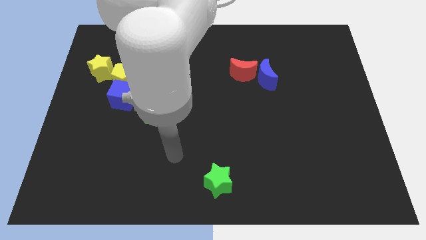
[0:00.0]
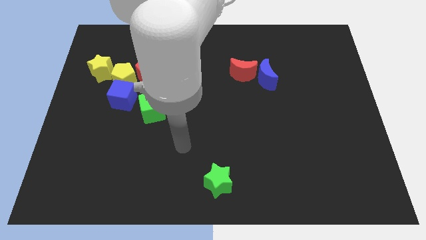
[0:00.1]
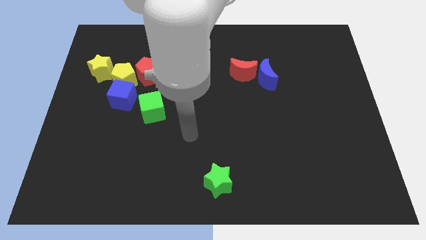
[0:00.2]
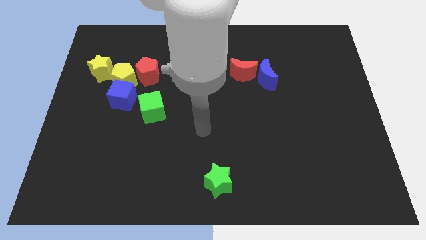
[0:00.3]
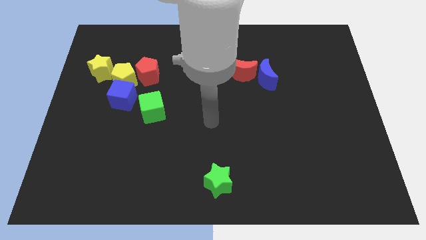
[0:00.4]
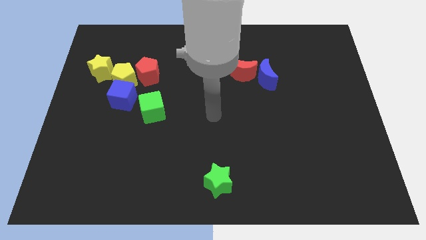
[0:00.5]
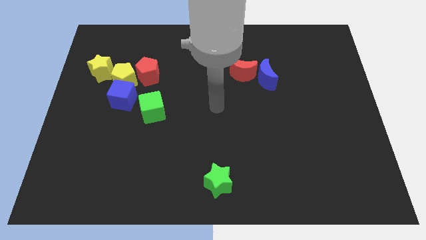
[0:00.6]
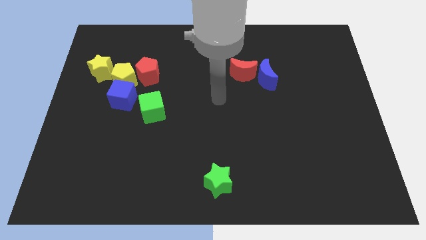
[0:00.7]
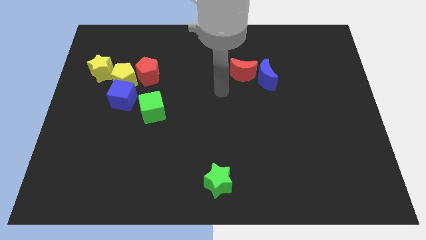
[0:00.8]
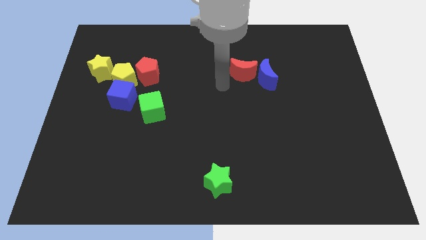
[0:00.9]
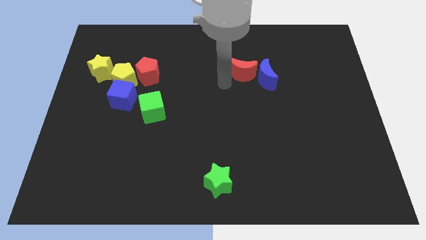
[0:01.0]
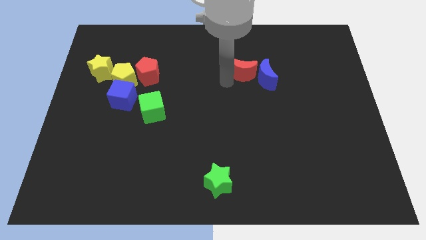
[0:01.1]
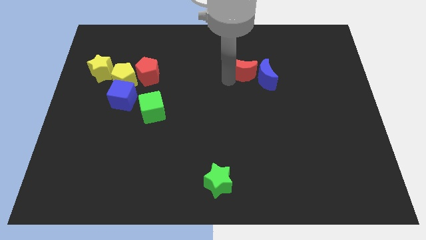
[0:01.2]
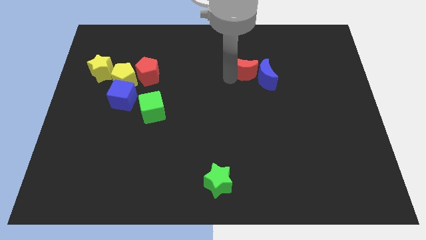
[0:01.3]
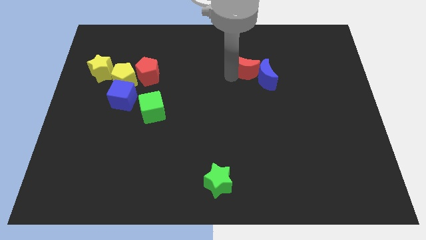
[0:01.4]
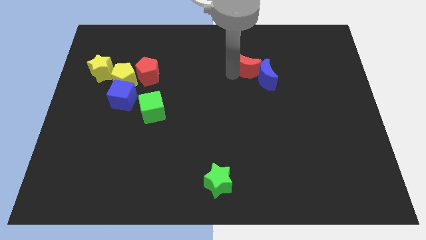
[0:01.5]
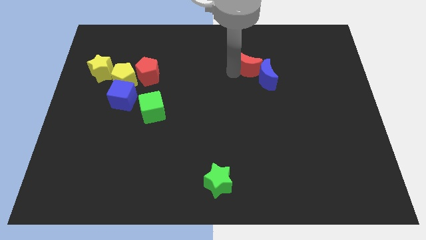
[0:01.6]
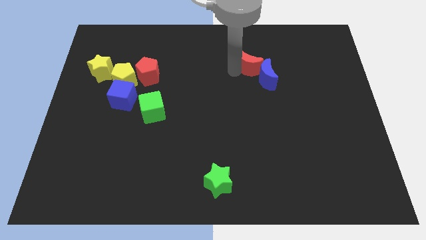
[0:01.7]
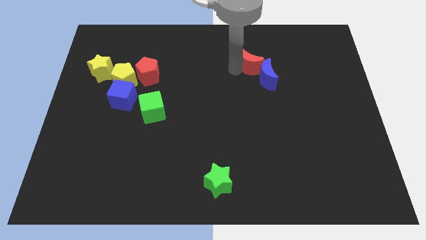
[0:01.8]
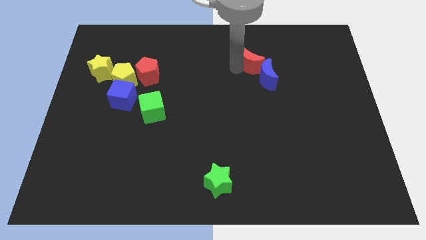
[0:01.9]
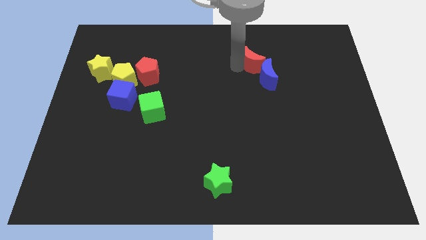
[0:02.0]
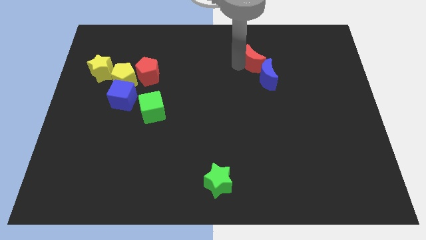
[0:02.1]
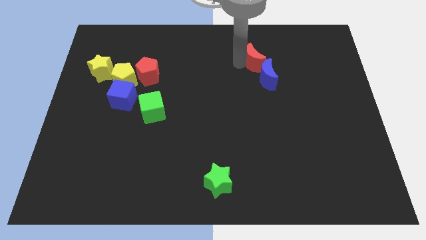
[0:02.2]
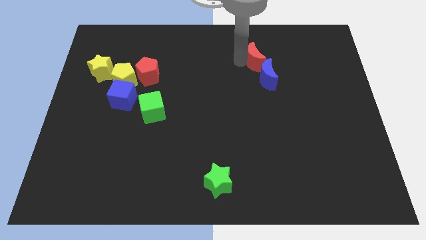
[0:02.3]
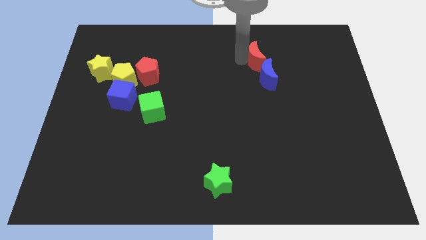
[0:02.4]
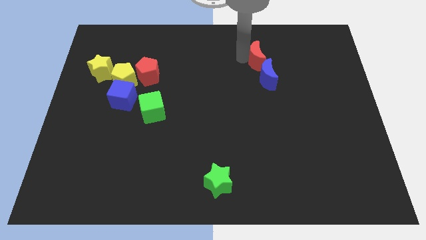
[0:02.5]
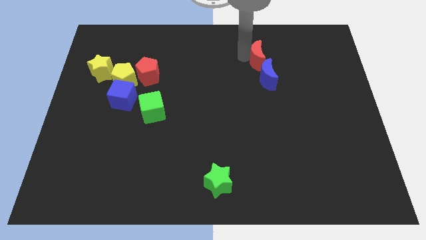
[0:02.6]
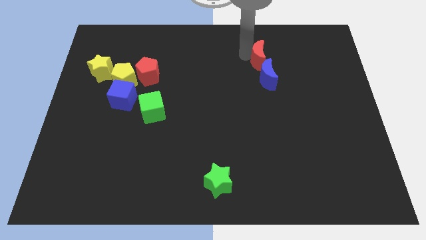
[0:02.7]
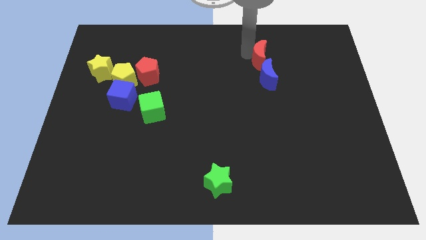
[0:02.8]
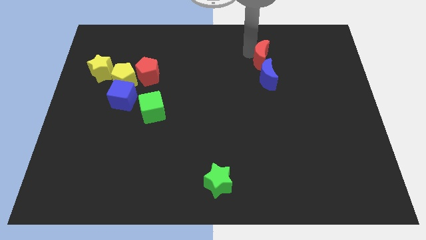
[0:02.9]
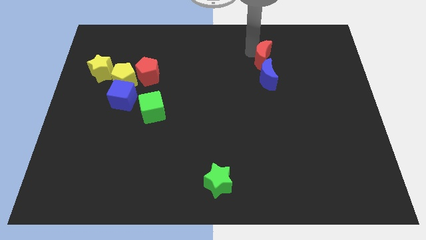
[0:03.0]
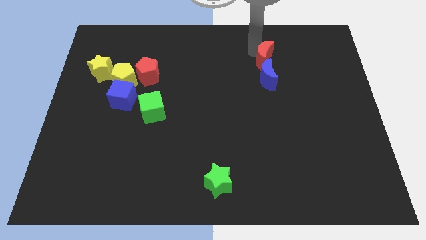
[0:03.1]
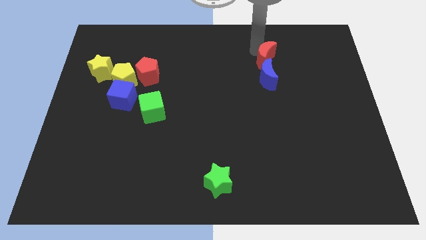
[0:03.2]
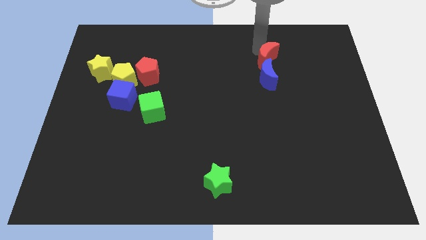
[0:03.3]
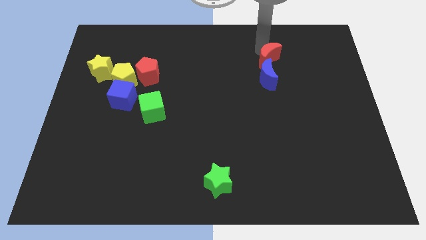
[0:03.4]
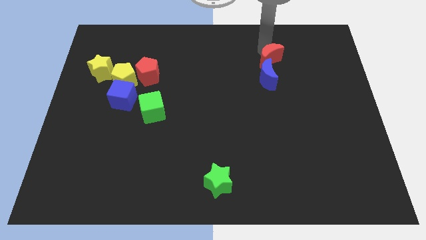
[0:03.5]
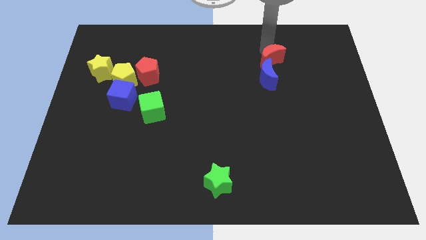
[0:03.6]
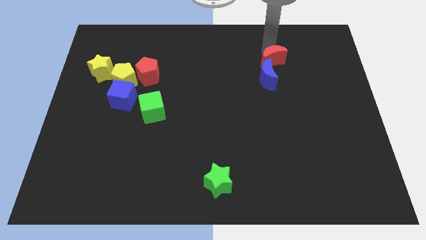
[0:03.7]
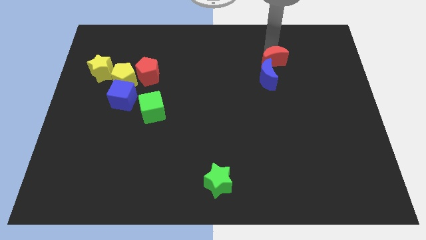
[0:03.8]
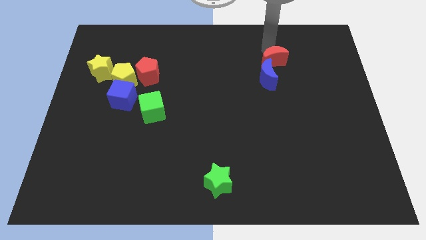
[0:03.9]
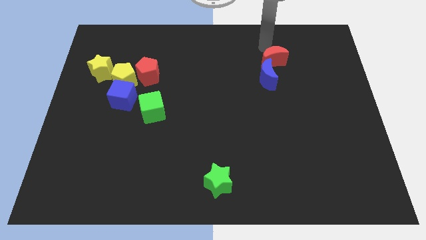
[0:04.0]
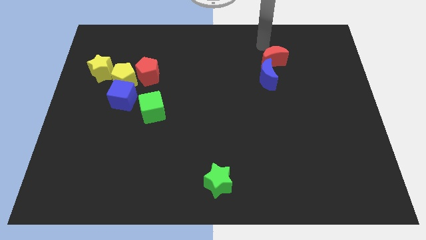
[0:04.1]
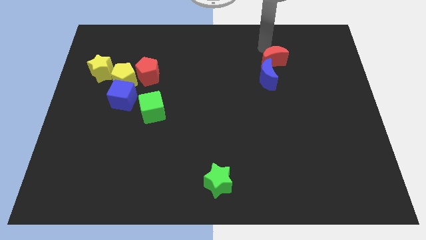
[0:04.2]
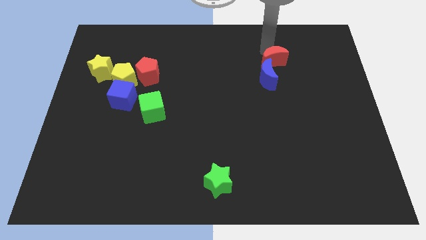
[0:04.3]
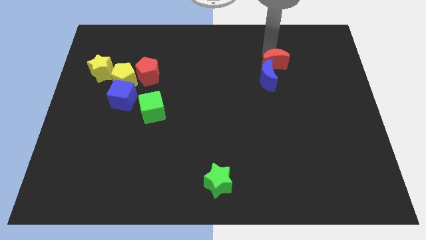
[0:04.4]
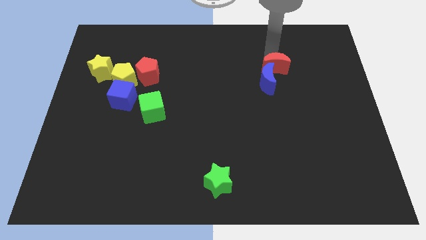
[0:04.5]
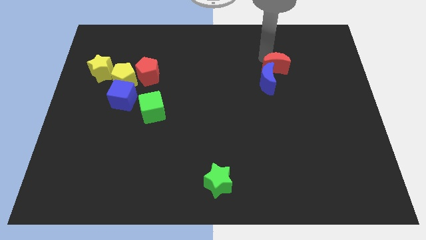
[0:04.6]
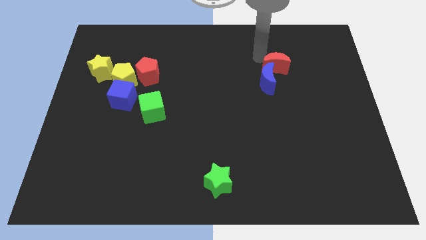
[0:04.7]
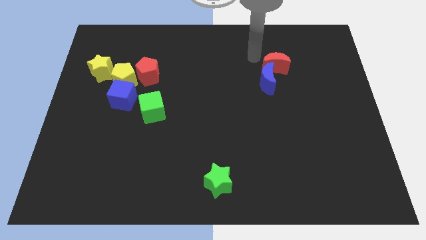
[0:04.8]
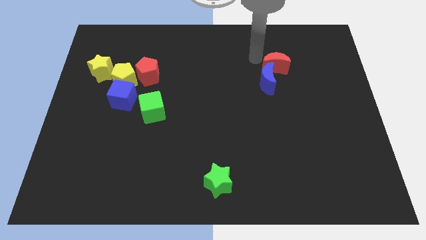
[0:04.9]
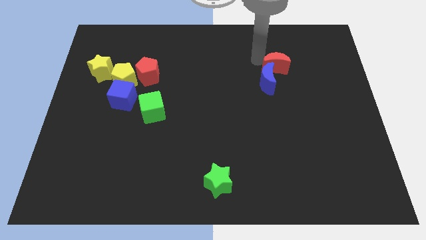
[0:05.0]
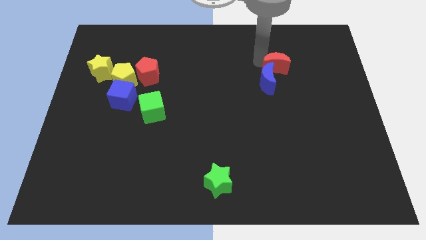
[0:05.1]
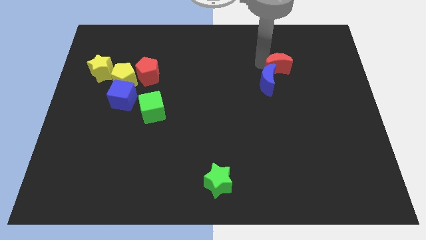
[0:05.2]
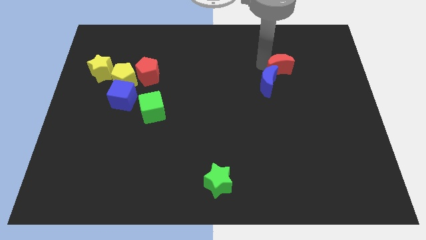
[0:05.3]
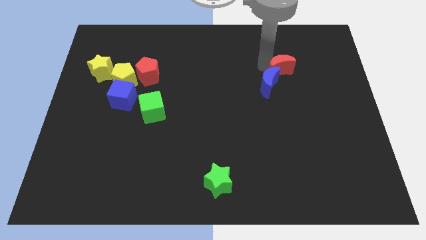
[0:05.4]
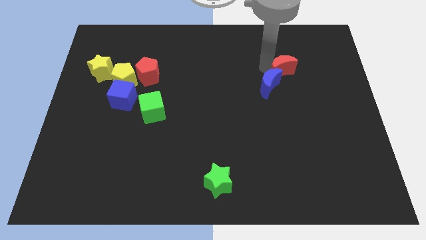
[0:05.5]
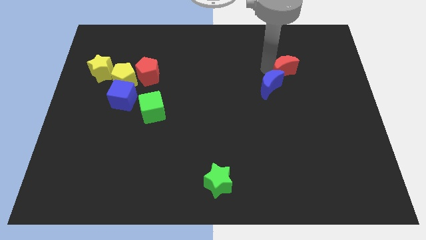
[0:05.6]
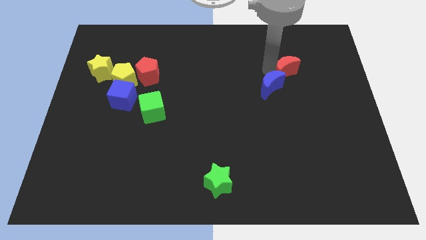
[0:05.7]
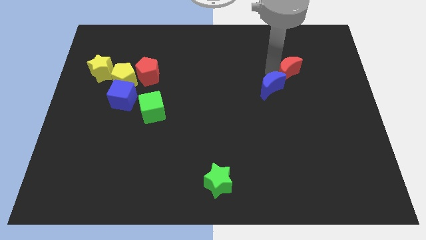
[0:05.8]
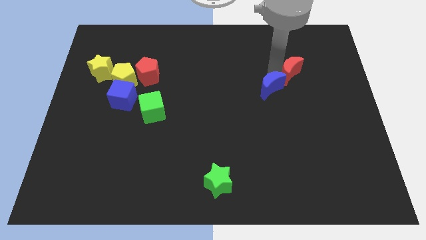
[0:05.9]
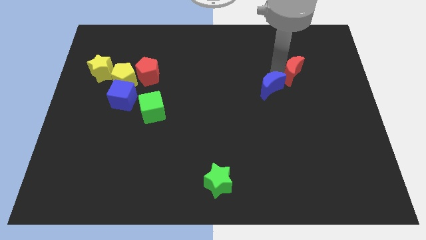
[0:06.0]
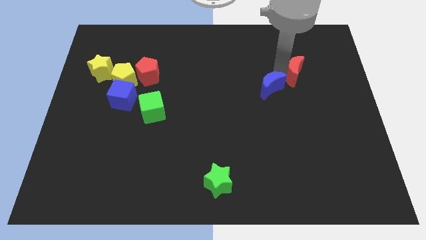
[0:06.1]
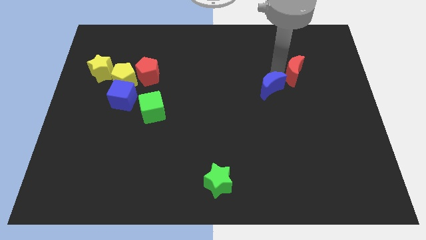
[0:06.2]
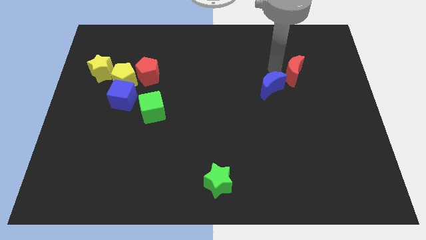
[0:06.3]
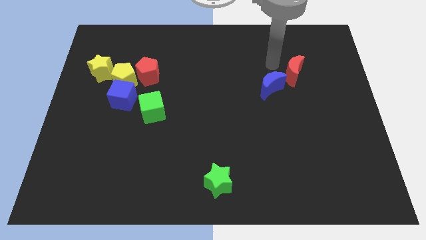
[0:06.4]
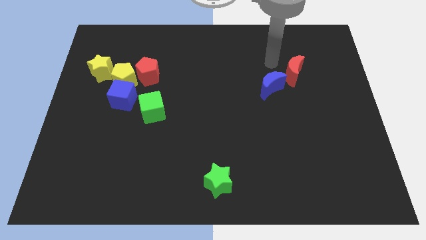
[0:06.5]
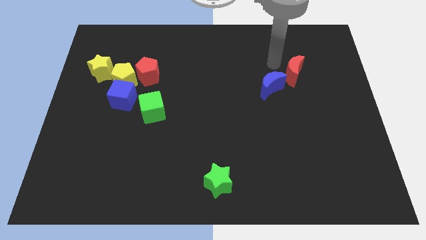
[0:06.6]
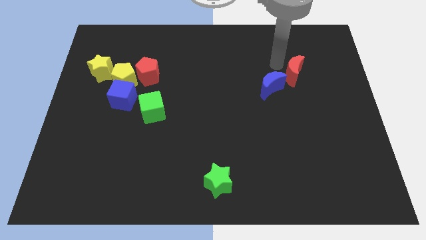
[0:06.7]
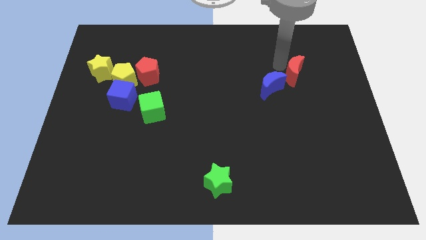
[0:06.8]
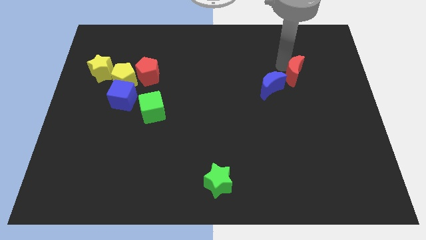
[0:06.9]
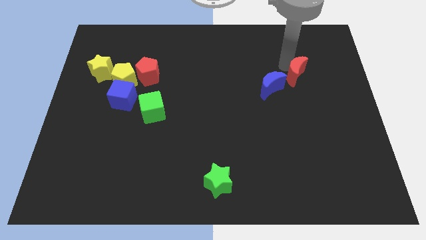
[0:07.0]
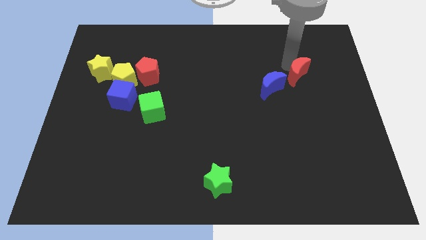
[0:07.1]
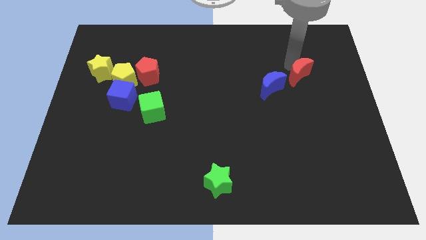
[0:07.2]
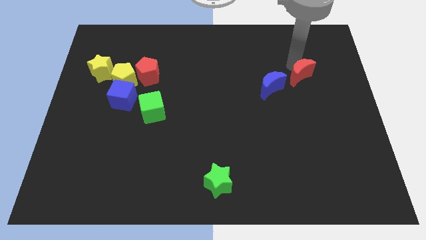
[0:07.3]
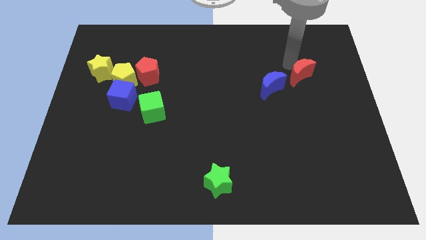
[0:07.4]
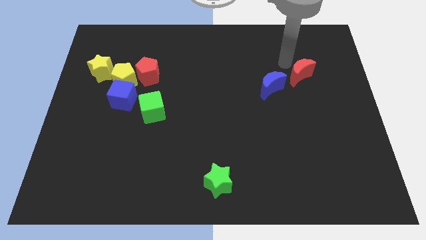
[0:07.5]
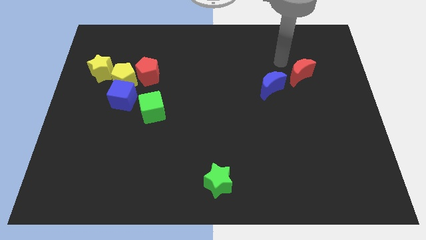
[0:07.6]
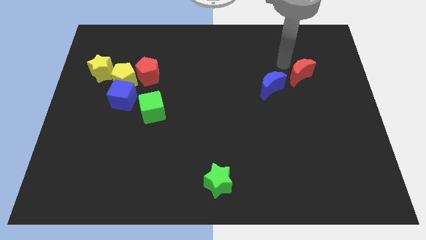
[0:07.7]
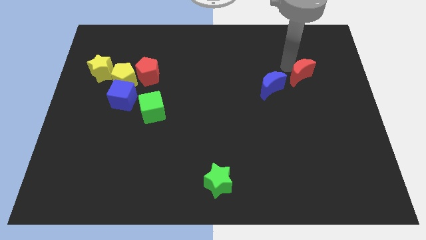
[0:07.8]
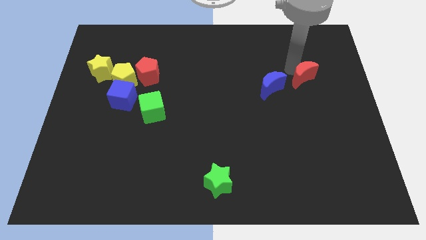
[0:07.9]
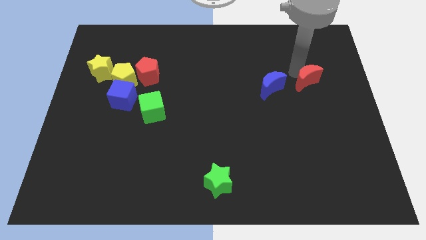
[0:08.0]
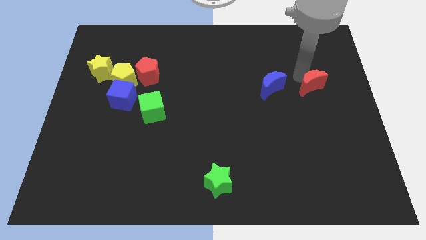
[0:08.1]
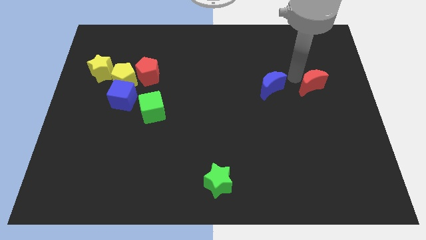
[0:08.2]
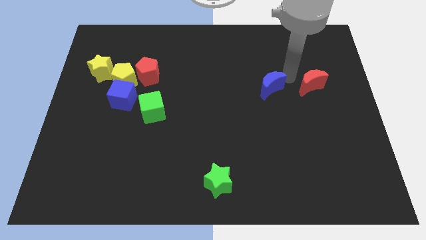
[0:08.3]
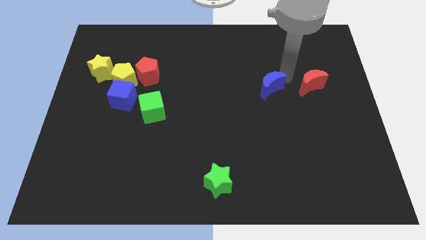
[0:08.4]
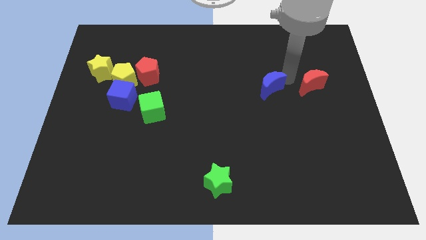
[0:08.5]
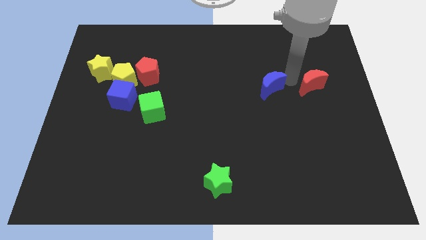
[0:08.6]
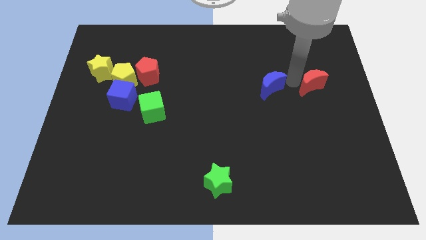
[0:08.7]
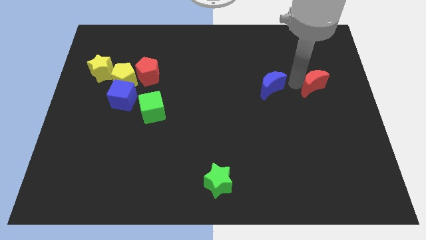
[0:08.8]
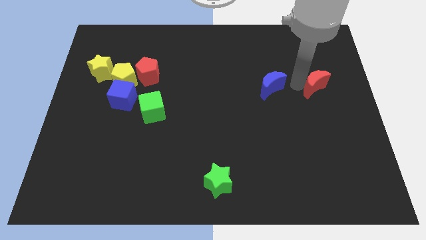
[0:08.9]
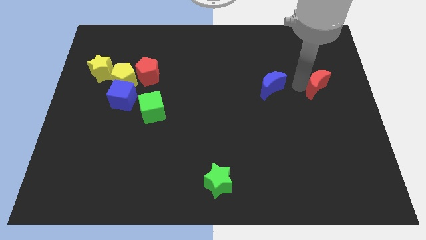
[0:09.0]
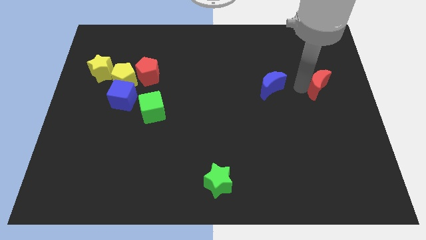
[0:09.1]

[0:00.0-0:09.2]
slide the red moon to the right side
